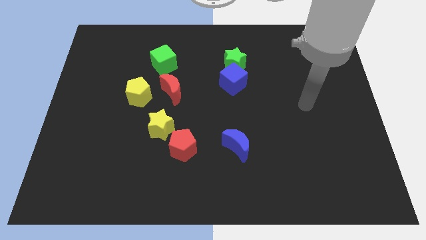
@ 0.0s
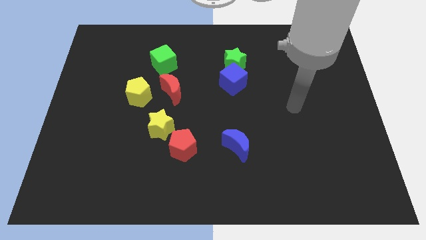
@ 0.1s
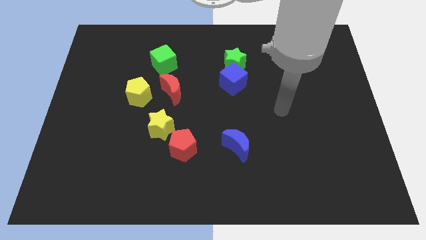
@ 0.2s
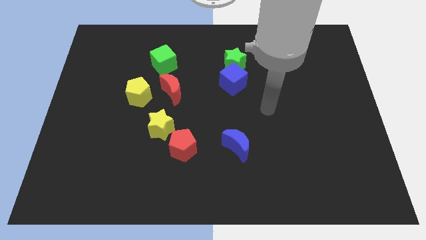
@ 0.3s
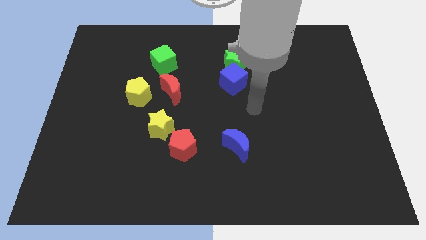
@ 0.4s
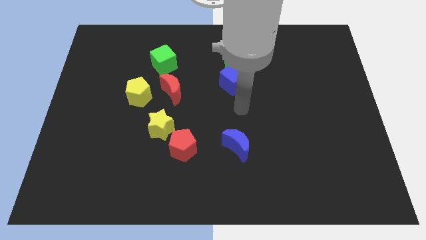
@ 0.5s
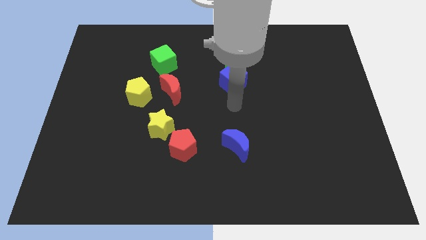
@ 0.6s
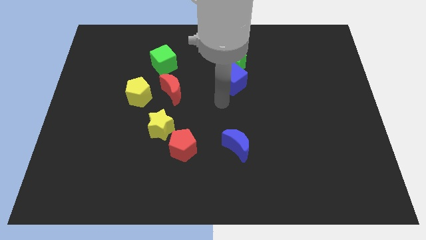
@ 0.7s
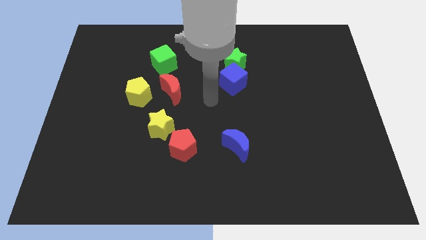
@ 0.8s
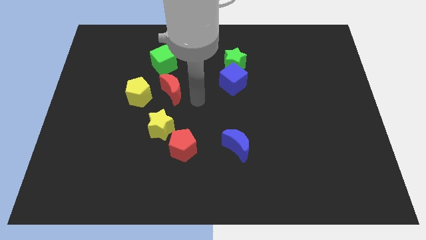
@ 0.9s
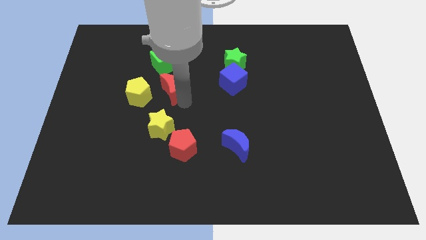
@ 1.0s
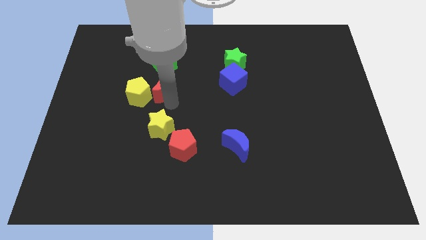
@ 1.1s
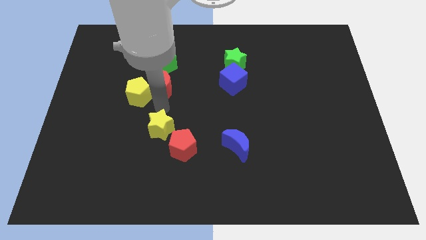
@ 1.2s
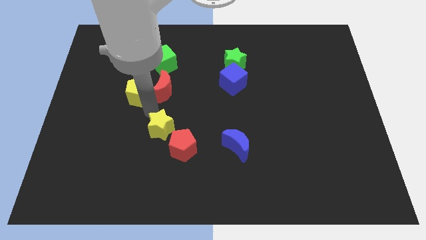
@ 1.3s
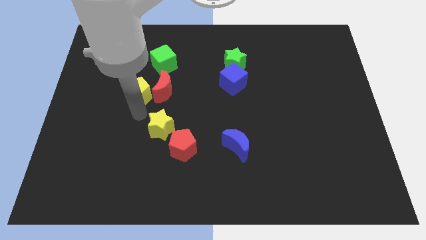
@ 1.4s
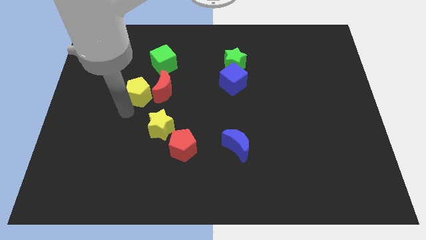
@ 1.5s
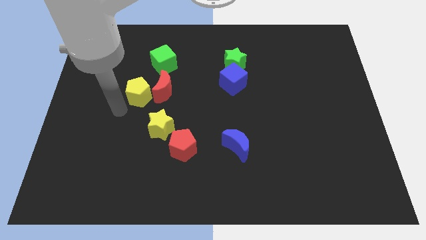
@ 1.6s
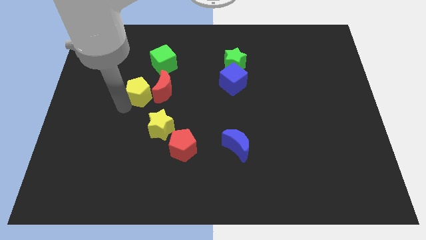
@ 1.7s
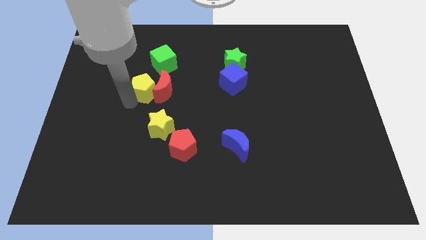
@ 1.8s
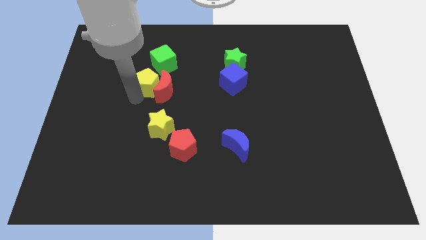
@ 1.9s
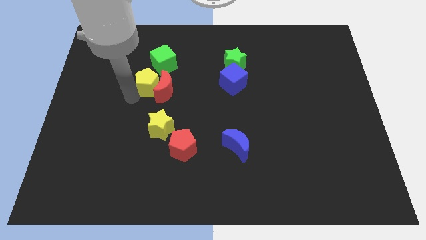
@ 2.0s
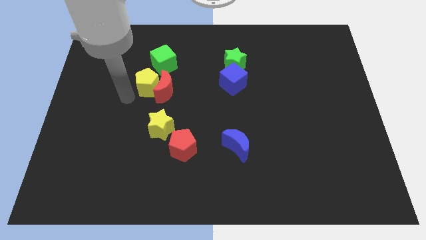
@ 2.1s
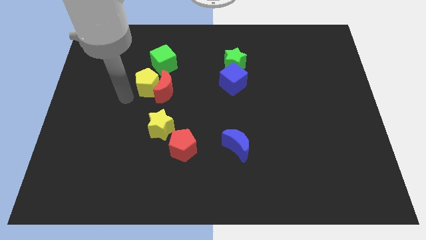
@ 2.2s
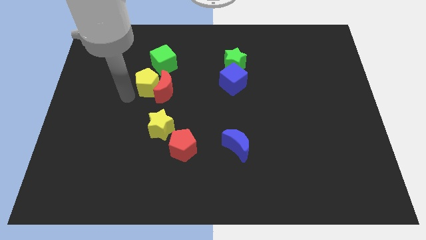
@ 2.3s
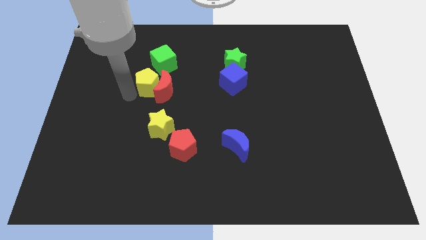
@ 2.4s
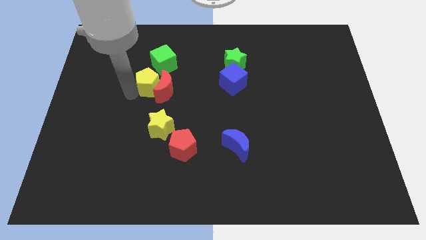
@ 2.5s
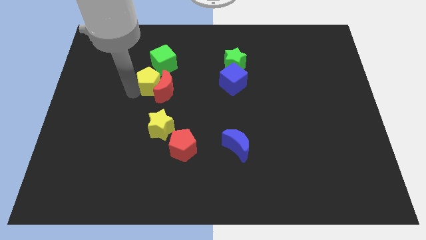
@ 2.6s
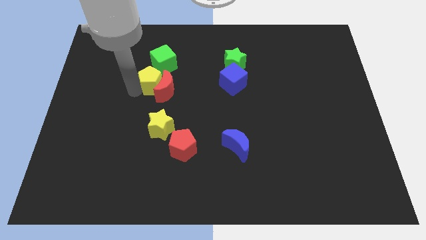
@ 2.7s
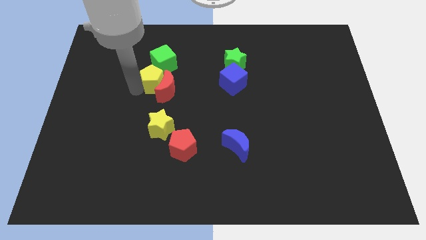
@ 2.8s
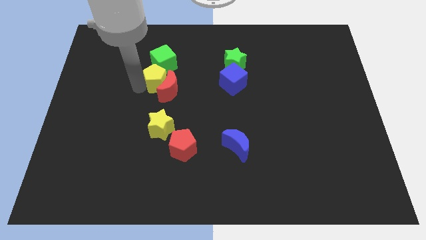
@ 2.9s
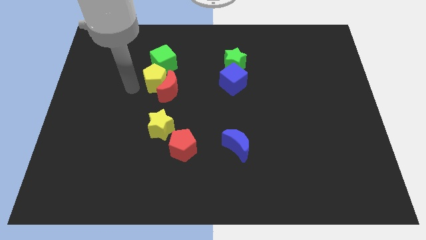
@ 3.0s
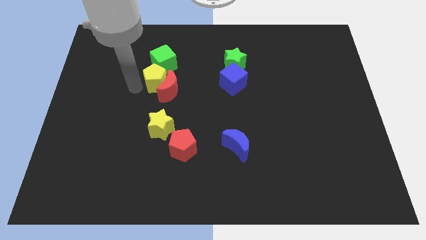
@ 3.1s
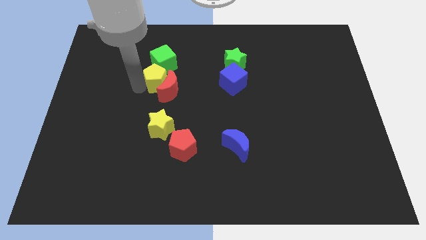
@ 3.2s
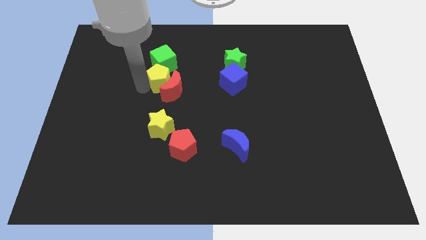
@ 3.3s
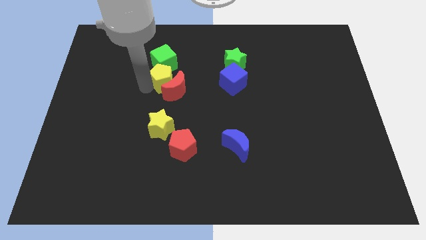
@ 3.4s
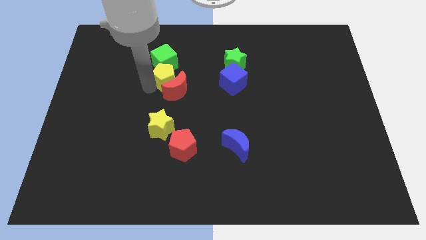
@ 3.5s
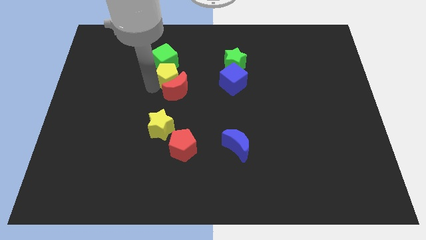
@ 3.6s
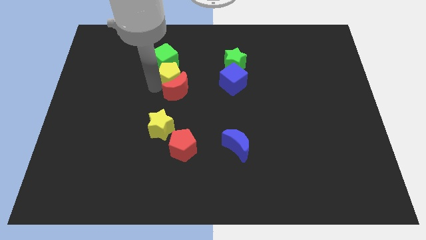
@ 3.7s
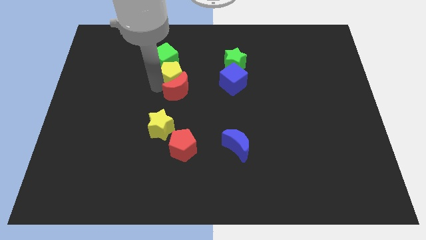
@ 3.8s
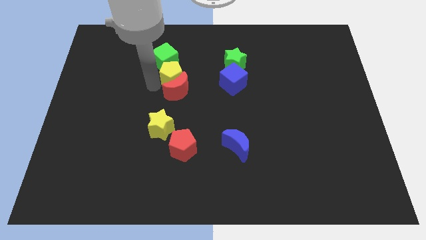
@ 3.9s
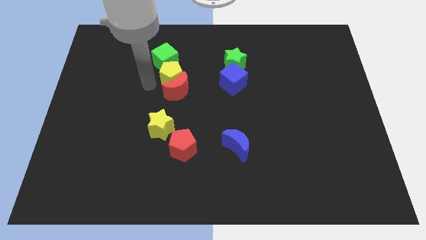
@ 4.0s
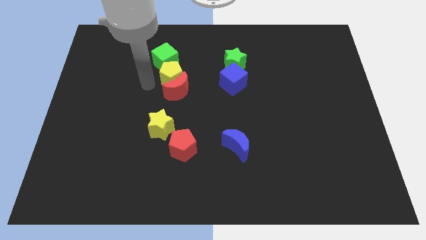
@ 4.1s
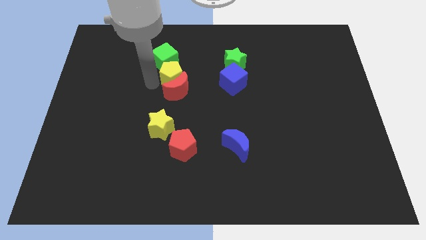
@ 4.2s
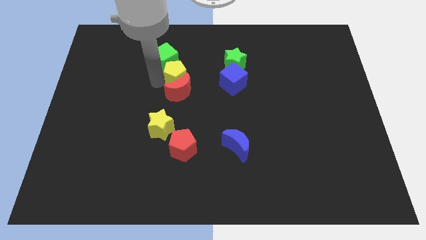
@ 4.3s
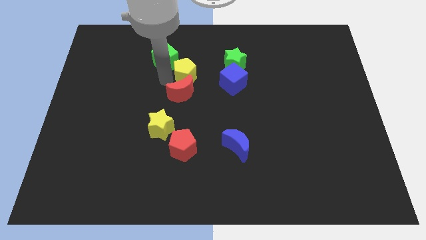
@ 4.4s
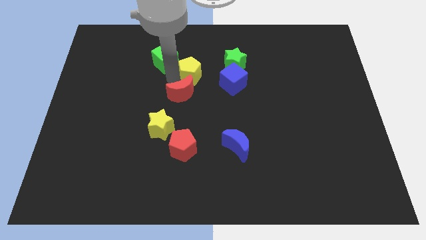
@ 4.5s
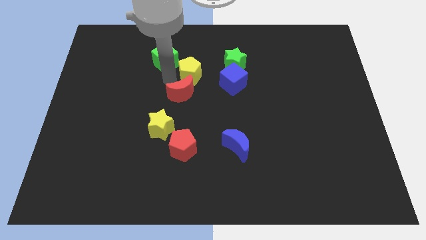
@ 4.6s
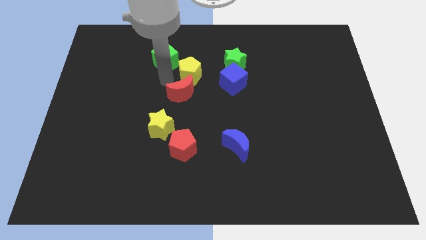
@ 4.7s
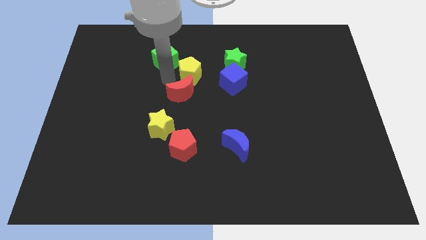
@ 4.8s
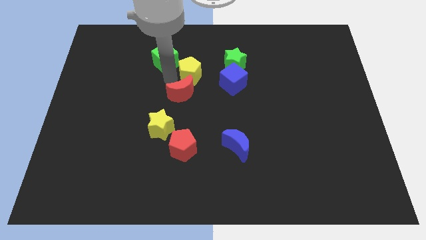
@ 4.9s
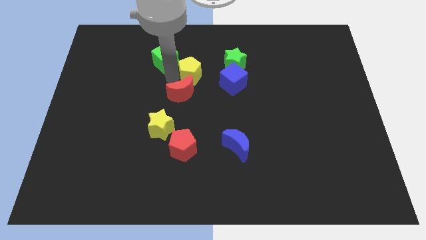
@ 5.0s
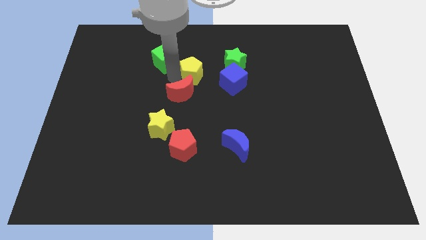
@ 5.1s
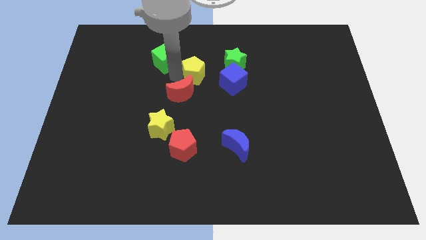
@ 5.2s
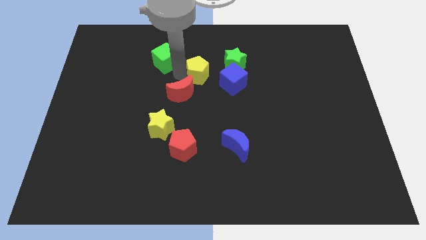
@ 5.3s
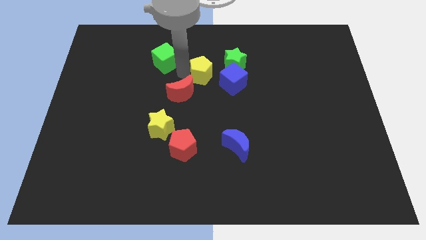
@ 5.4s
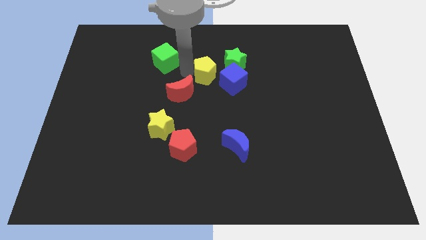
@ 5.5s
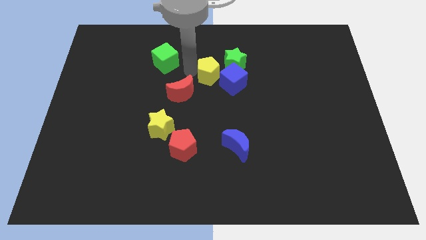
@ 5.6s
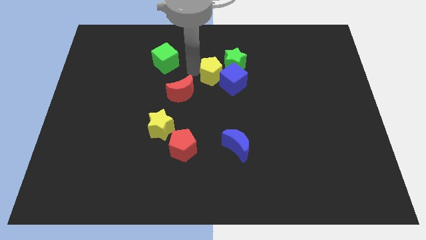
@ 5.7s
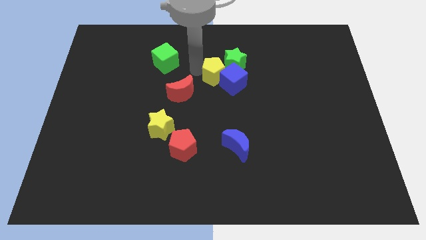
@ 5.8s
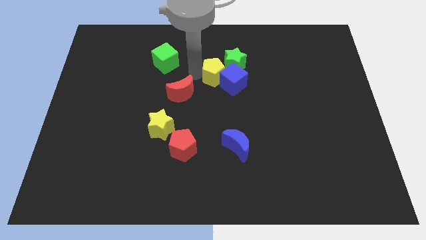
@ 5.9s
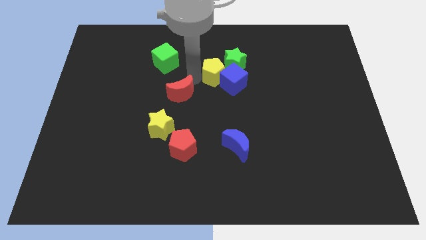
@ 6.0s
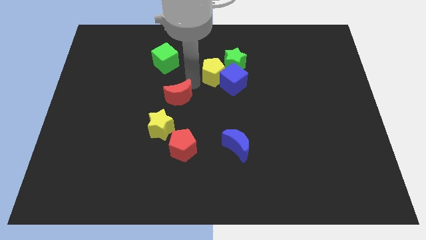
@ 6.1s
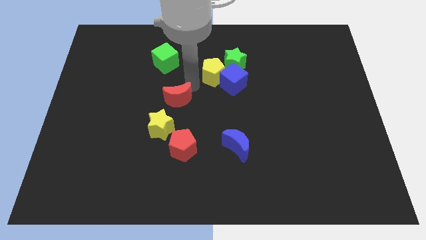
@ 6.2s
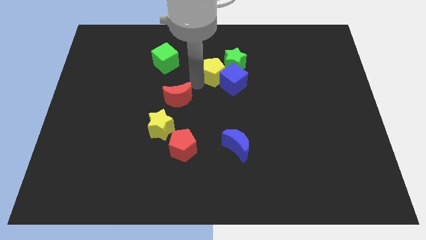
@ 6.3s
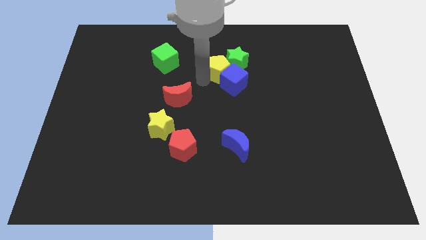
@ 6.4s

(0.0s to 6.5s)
slide the yellow pentagon next to the green star
